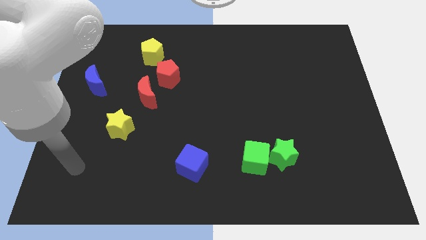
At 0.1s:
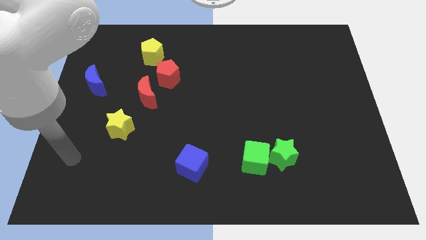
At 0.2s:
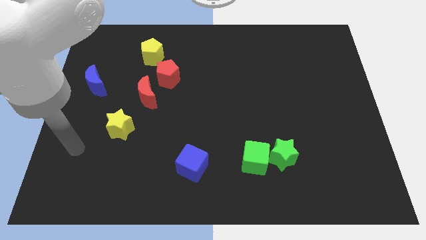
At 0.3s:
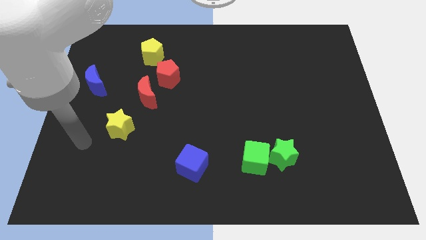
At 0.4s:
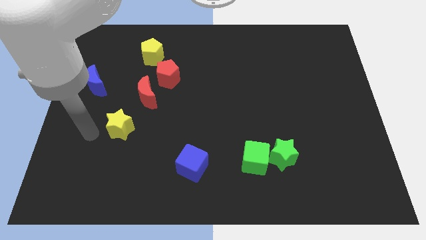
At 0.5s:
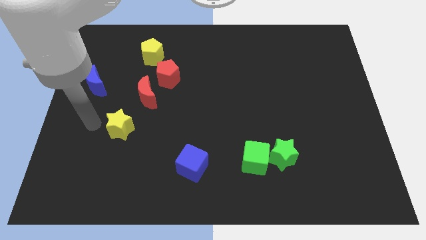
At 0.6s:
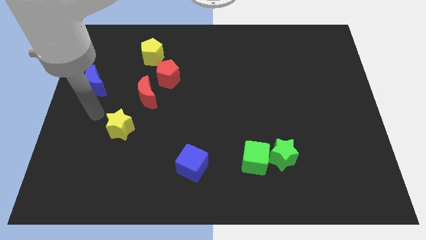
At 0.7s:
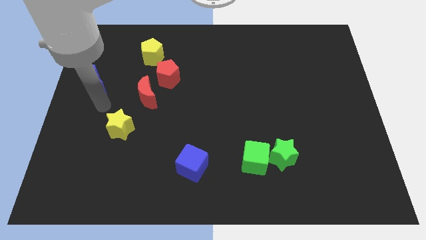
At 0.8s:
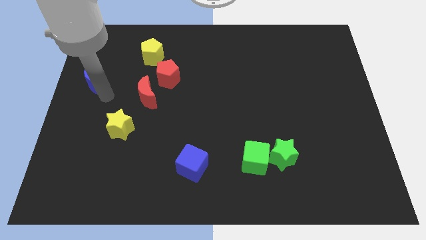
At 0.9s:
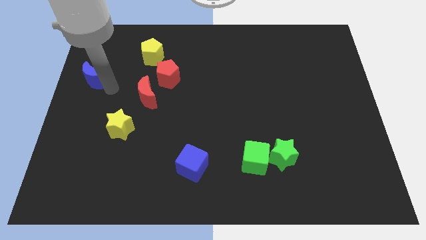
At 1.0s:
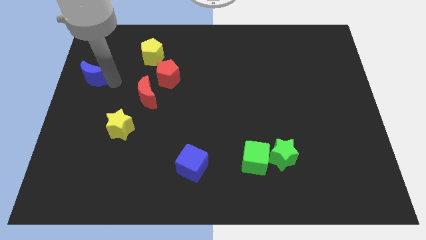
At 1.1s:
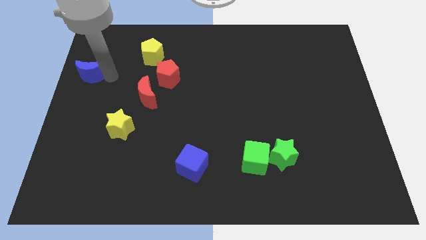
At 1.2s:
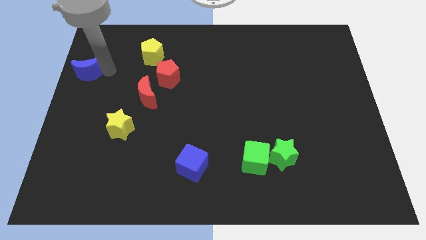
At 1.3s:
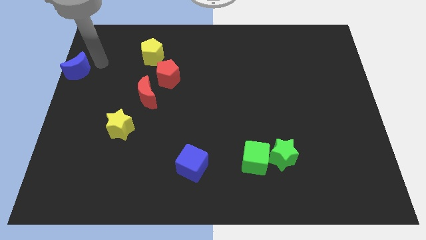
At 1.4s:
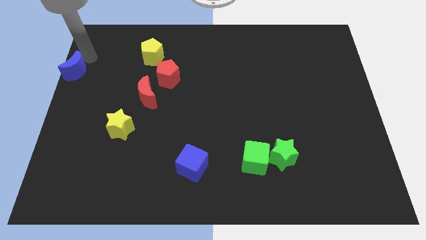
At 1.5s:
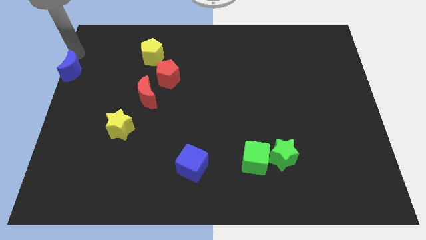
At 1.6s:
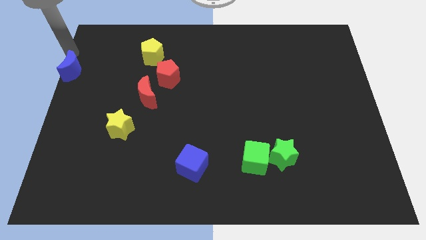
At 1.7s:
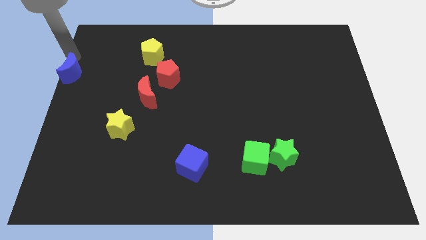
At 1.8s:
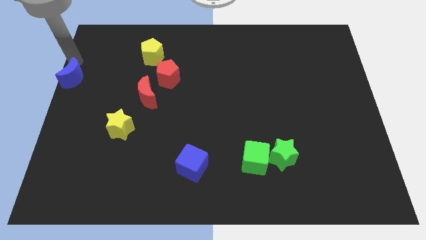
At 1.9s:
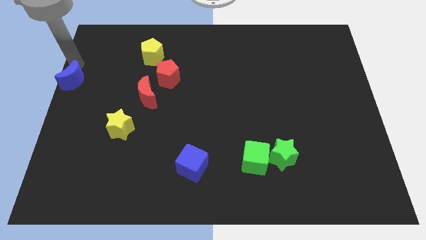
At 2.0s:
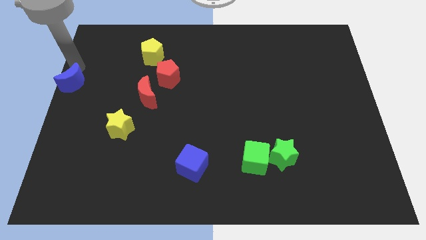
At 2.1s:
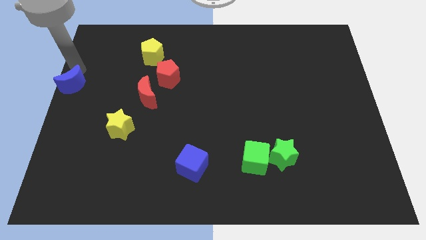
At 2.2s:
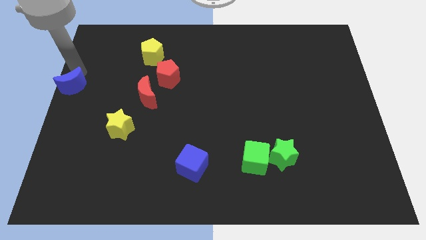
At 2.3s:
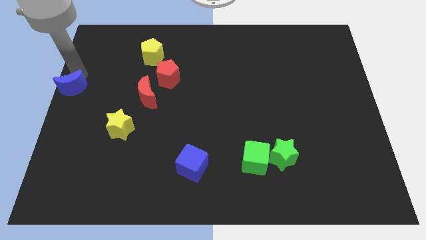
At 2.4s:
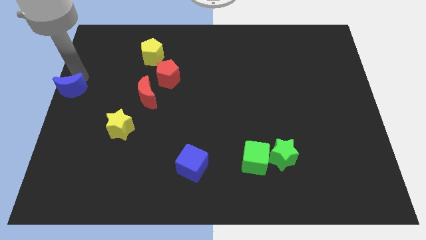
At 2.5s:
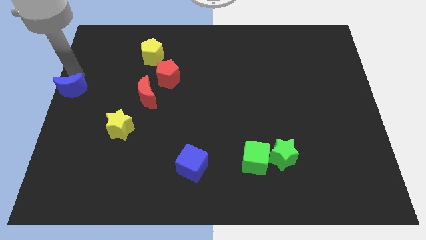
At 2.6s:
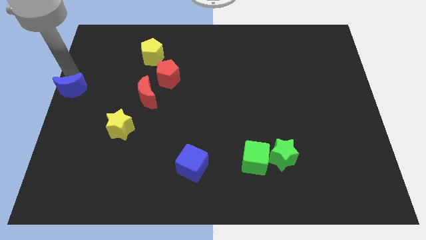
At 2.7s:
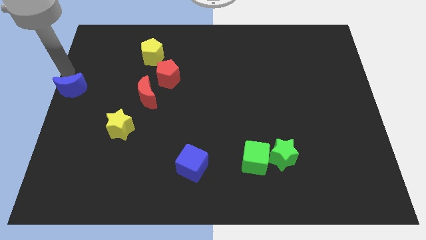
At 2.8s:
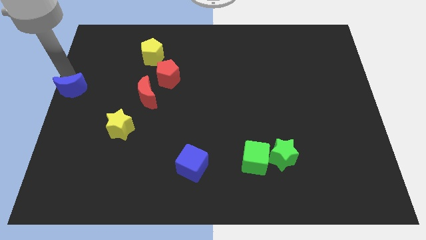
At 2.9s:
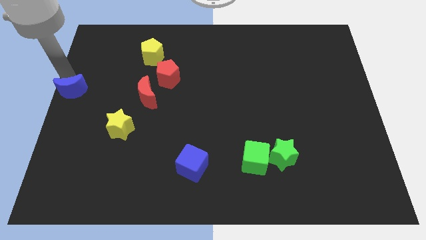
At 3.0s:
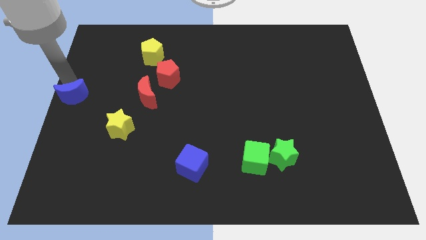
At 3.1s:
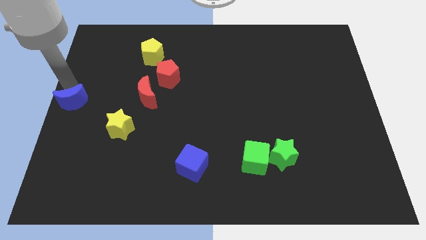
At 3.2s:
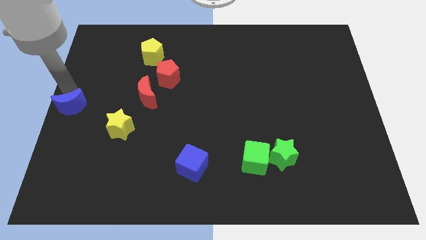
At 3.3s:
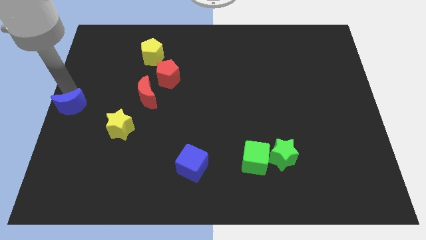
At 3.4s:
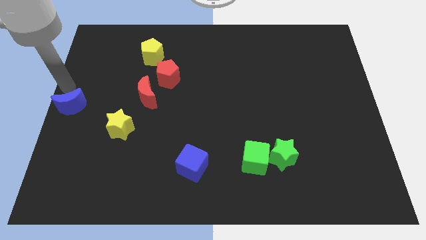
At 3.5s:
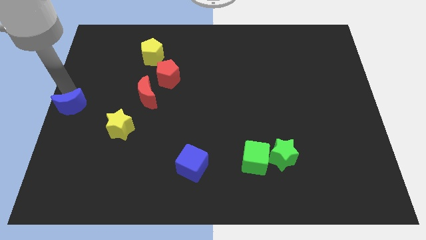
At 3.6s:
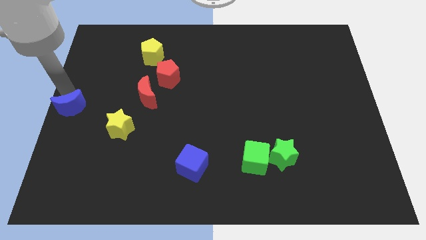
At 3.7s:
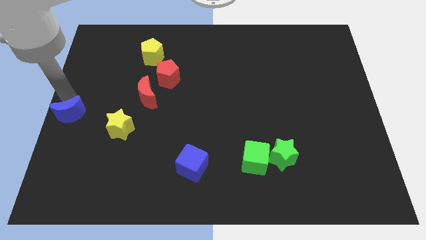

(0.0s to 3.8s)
push the blue moon down somewhat

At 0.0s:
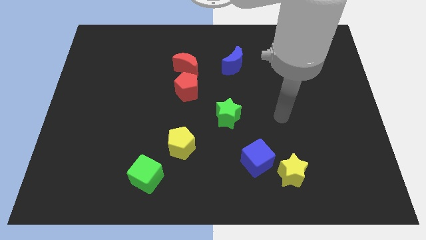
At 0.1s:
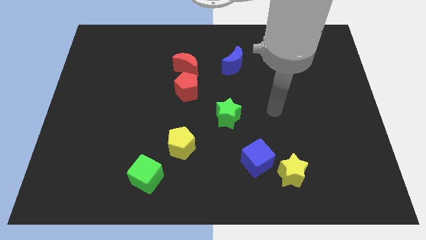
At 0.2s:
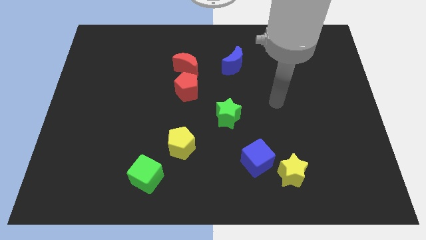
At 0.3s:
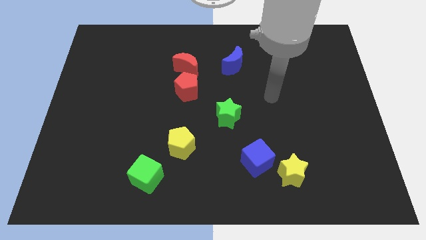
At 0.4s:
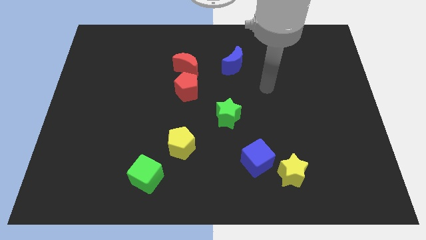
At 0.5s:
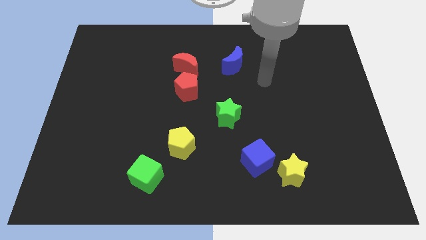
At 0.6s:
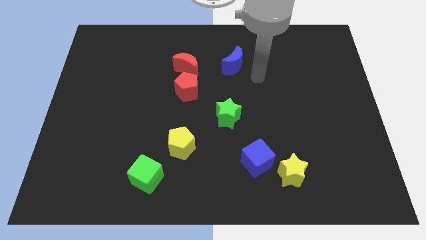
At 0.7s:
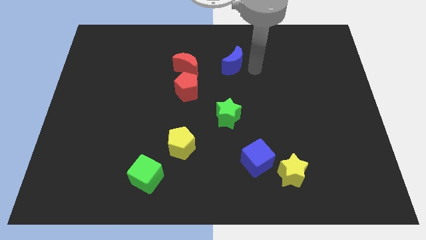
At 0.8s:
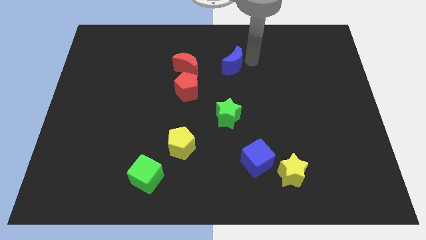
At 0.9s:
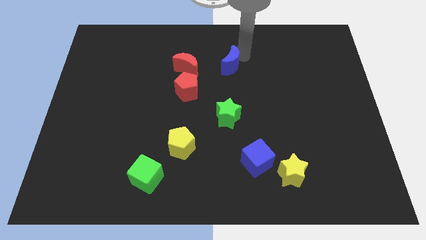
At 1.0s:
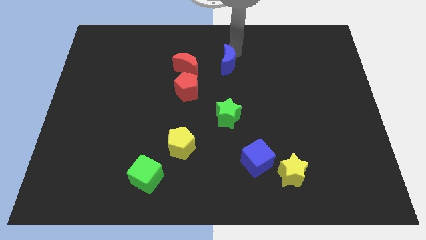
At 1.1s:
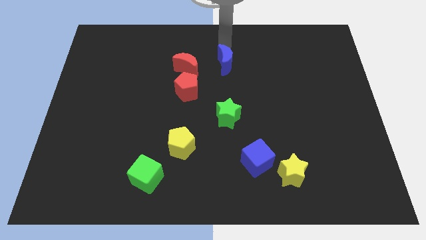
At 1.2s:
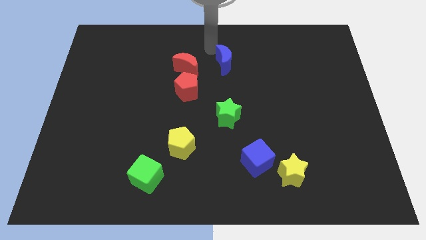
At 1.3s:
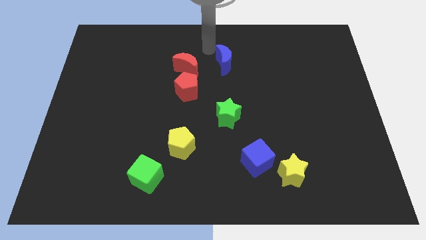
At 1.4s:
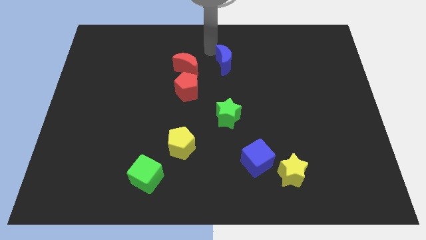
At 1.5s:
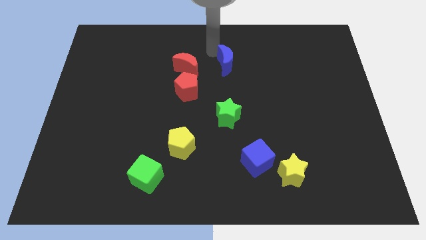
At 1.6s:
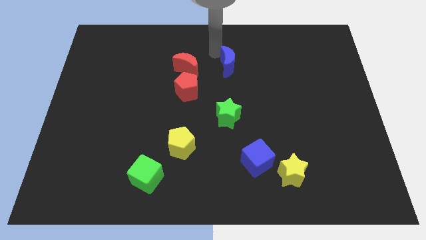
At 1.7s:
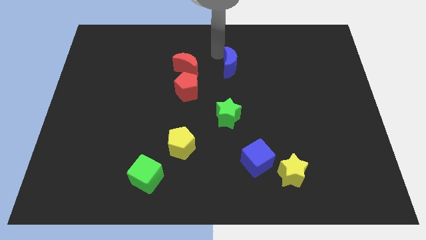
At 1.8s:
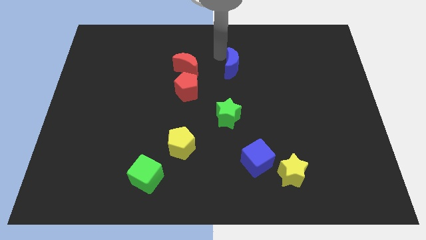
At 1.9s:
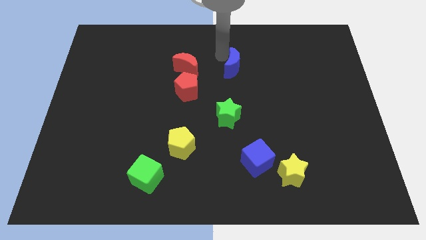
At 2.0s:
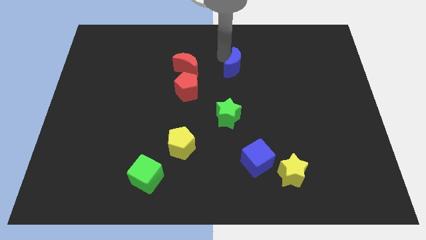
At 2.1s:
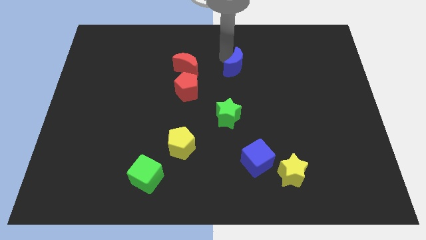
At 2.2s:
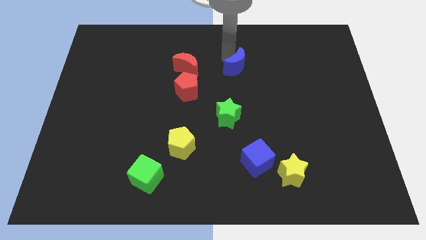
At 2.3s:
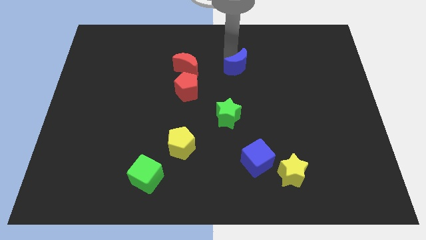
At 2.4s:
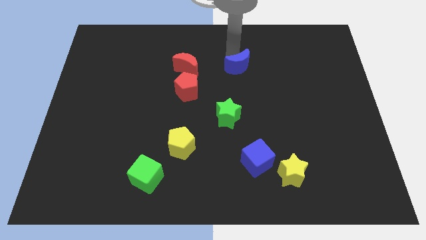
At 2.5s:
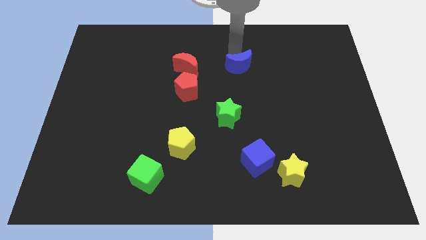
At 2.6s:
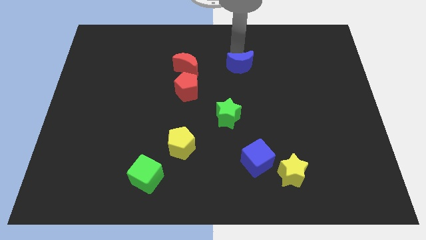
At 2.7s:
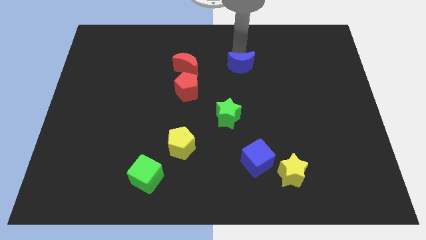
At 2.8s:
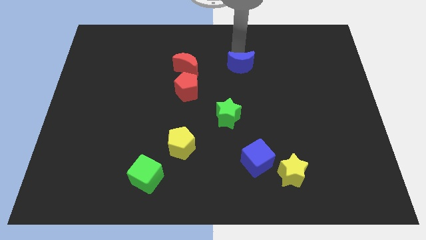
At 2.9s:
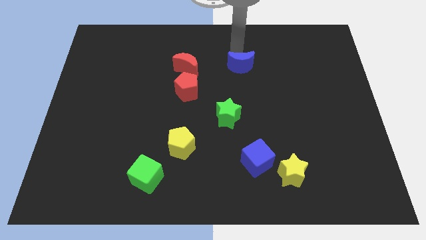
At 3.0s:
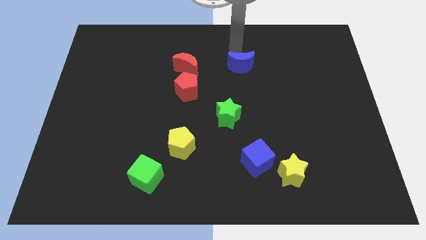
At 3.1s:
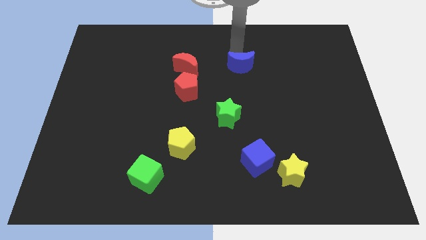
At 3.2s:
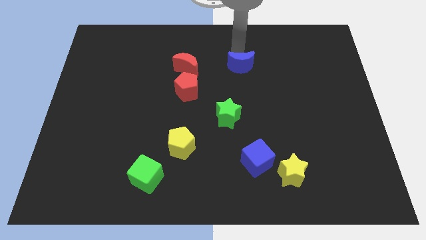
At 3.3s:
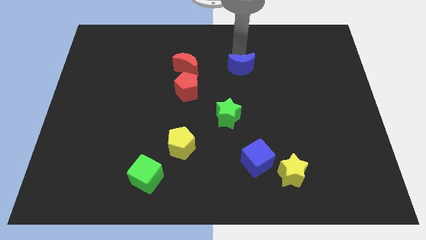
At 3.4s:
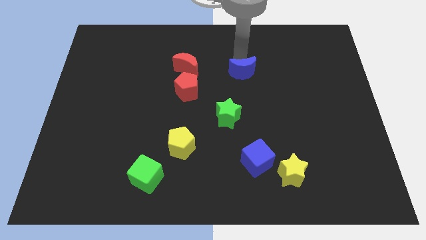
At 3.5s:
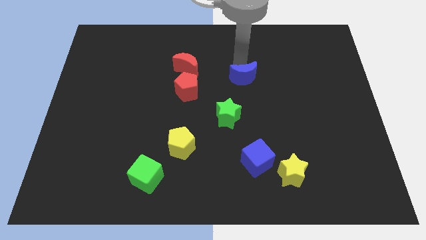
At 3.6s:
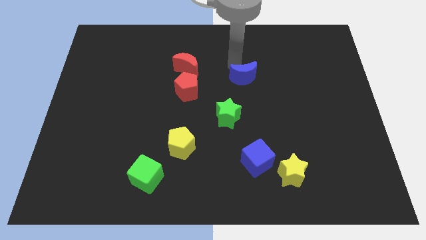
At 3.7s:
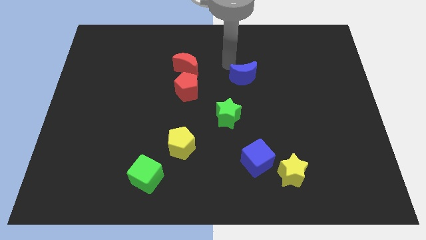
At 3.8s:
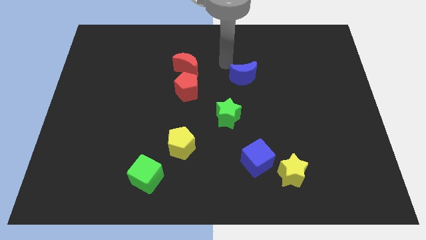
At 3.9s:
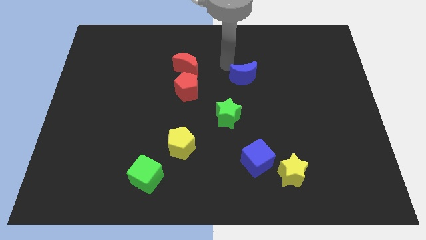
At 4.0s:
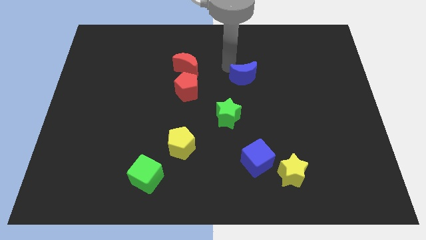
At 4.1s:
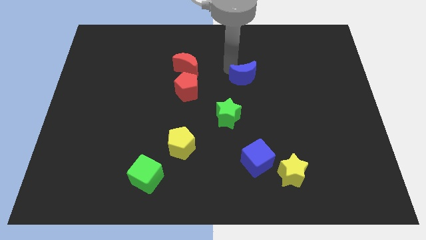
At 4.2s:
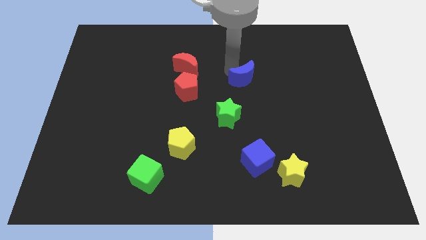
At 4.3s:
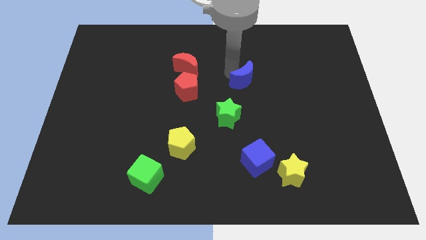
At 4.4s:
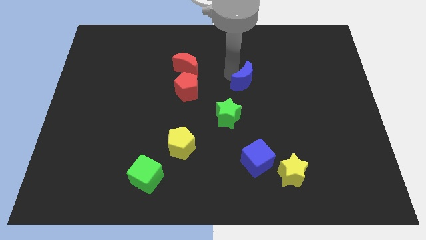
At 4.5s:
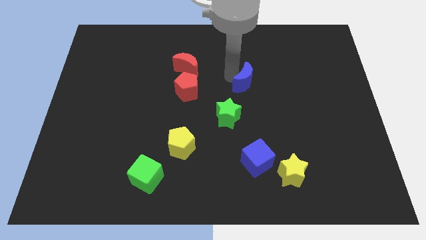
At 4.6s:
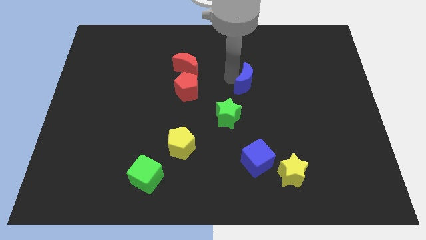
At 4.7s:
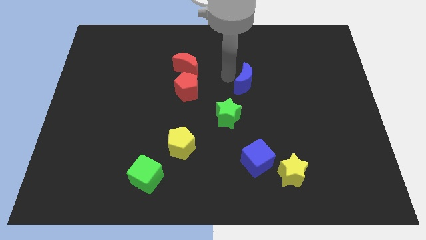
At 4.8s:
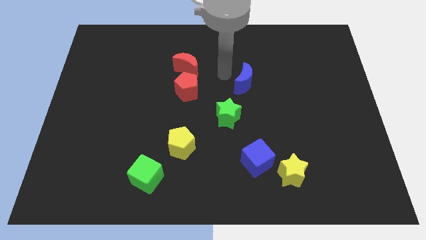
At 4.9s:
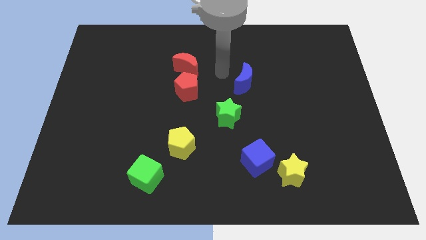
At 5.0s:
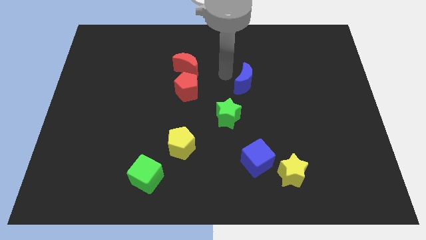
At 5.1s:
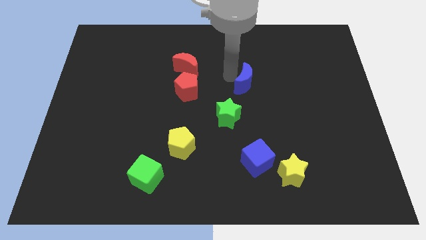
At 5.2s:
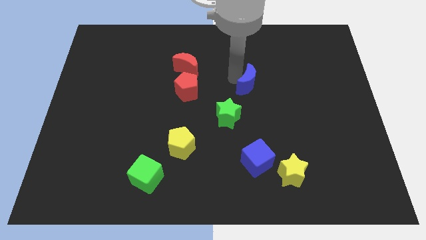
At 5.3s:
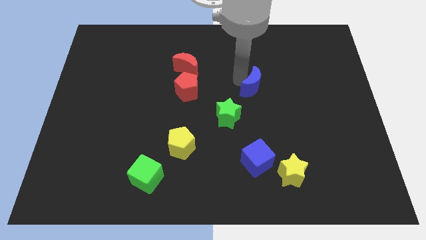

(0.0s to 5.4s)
slightly move the blue moon down and right diagonally
